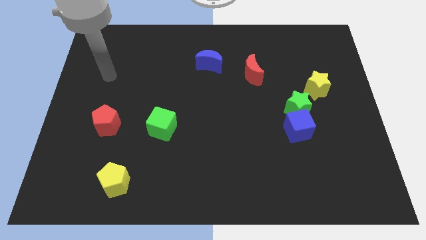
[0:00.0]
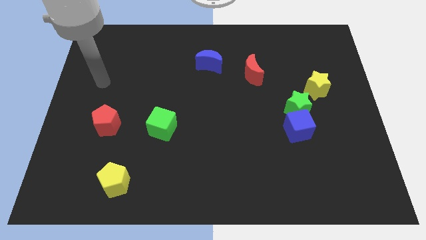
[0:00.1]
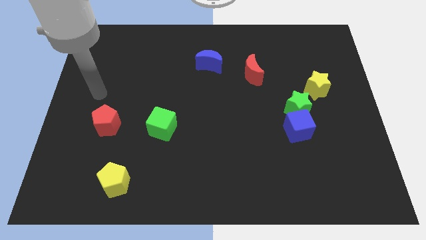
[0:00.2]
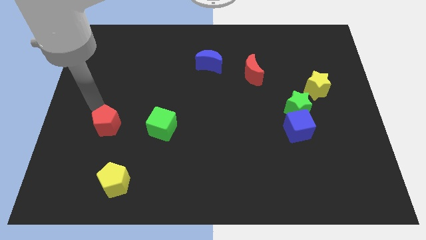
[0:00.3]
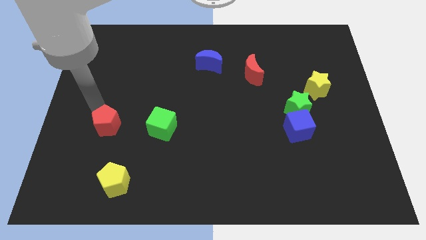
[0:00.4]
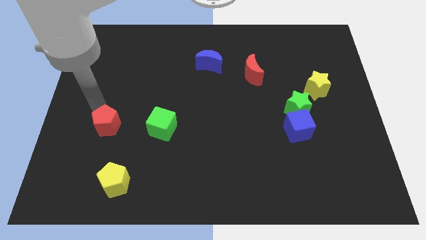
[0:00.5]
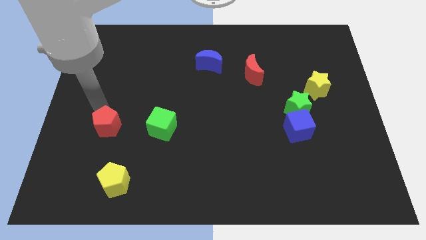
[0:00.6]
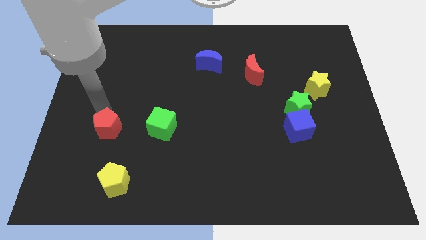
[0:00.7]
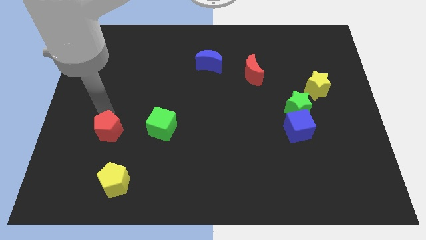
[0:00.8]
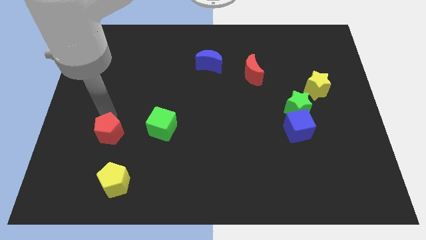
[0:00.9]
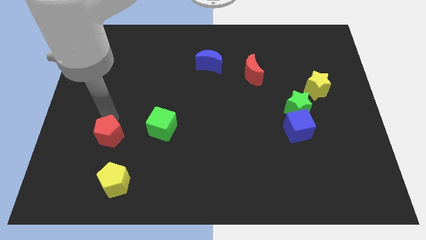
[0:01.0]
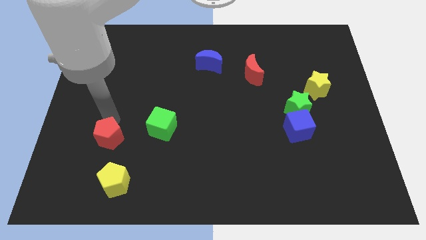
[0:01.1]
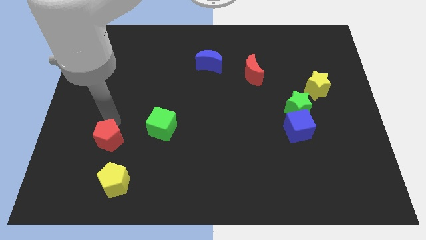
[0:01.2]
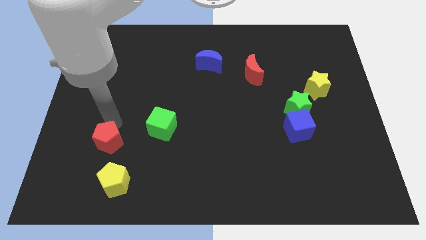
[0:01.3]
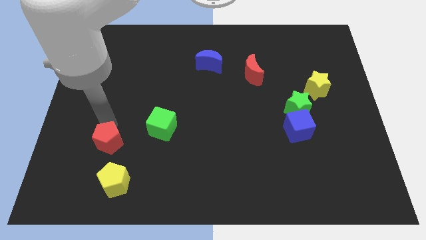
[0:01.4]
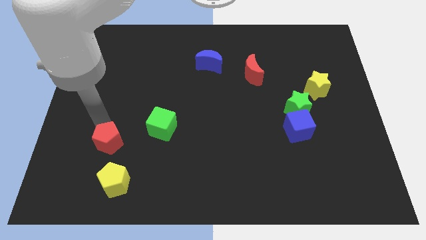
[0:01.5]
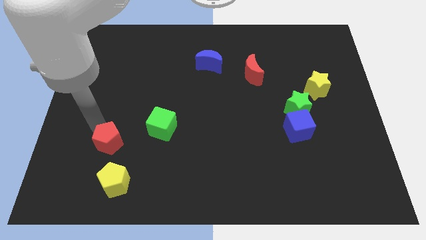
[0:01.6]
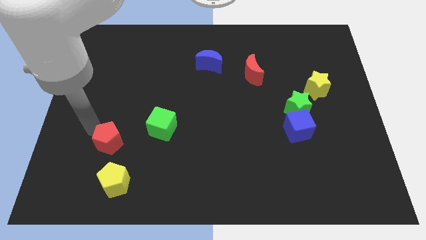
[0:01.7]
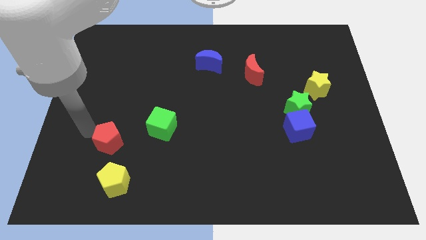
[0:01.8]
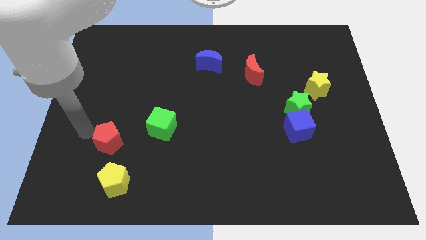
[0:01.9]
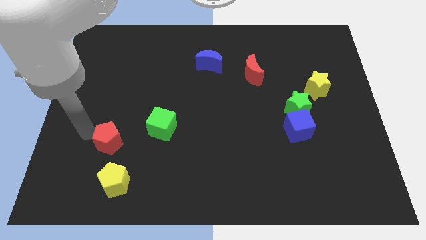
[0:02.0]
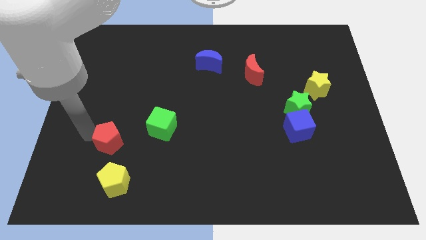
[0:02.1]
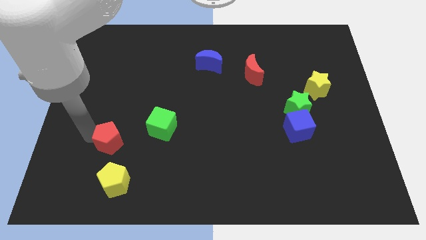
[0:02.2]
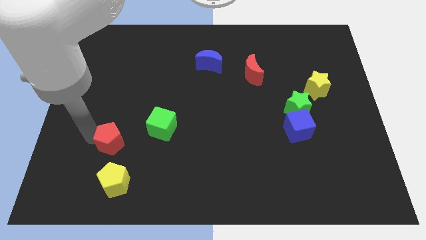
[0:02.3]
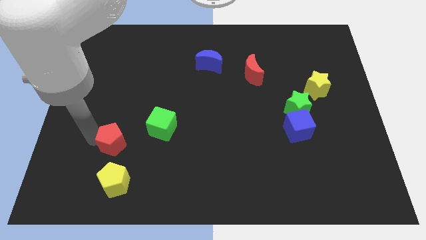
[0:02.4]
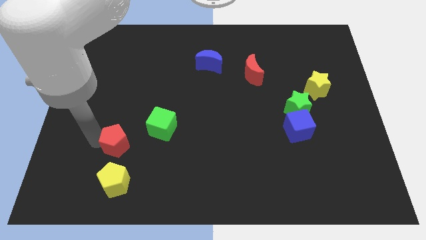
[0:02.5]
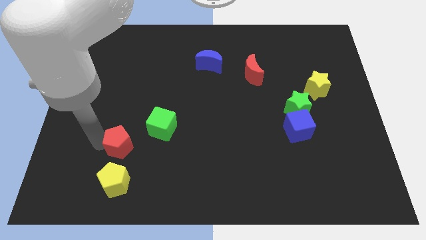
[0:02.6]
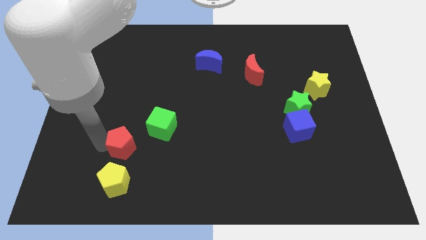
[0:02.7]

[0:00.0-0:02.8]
push the red pentagon a little down and right diagonally

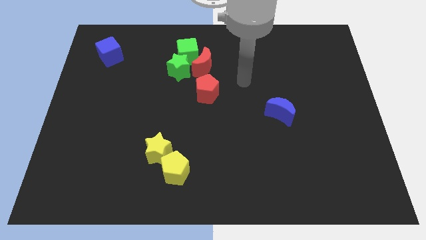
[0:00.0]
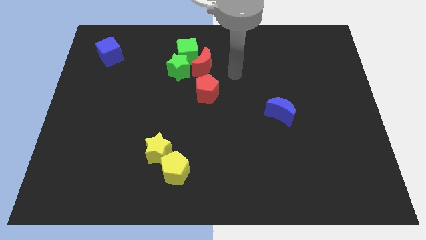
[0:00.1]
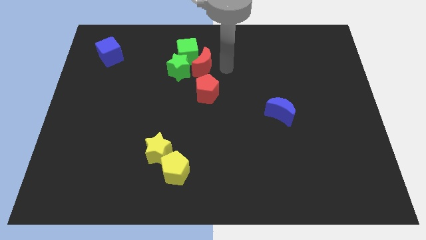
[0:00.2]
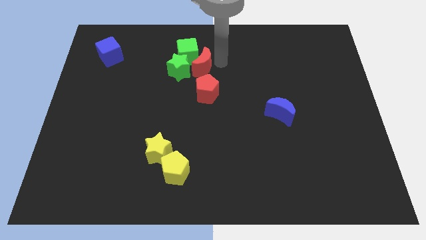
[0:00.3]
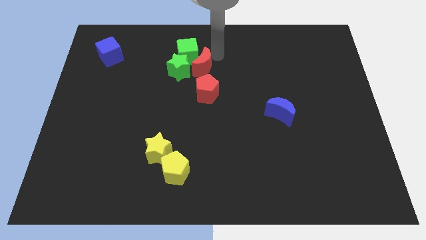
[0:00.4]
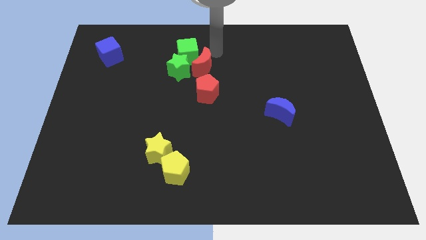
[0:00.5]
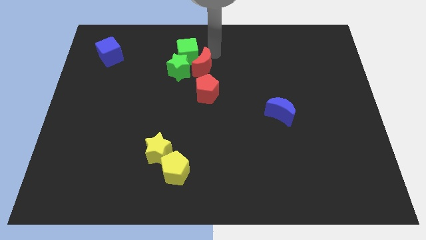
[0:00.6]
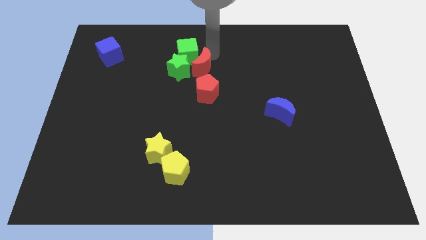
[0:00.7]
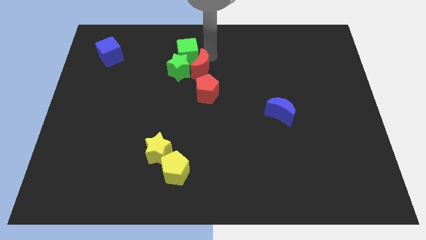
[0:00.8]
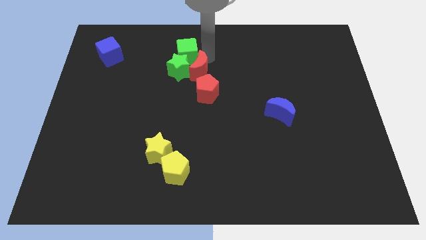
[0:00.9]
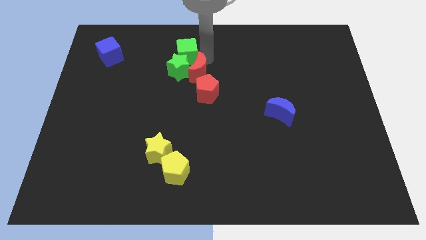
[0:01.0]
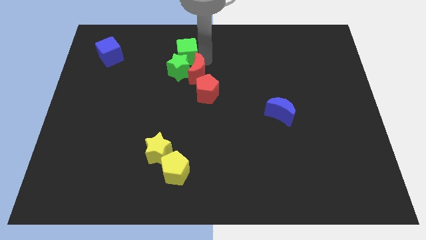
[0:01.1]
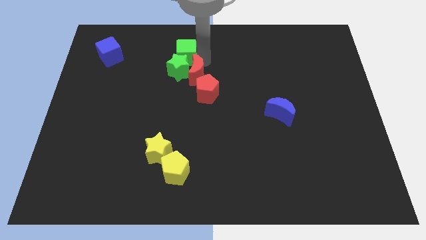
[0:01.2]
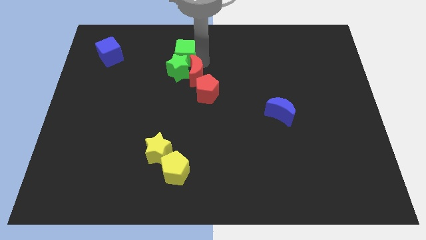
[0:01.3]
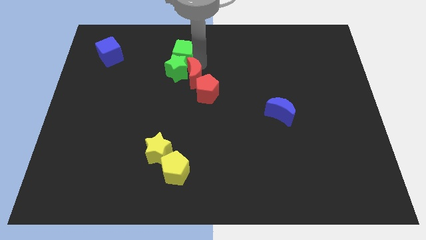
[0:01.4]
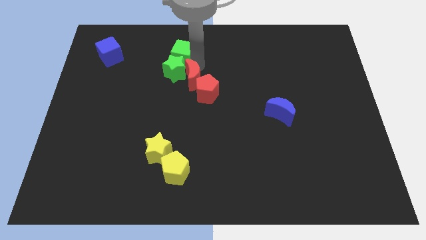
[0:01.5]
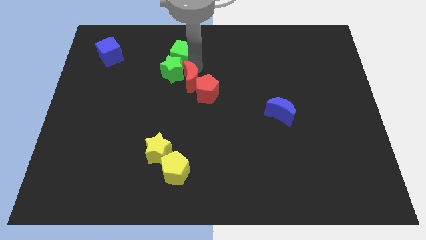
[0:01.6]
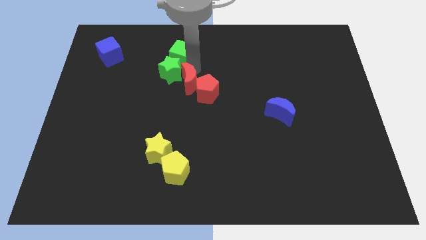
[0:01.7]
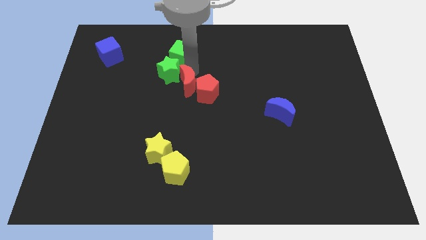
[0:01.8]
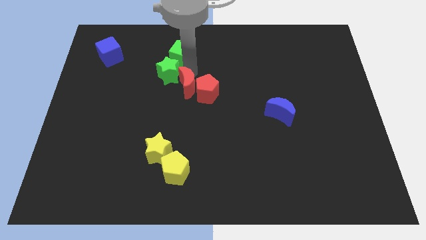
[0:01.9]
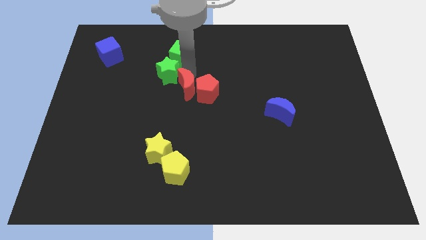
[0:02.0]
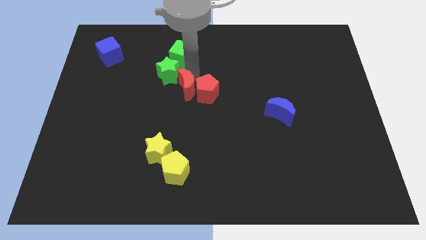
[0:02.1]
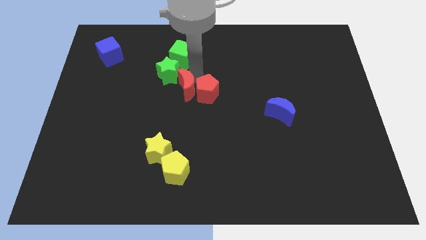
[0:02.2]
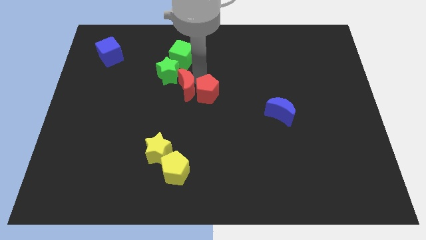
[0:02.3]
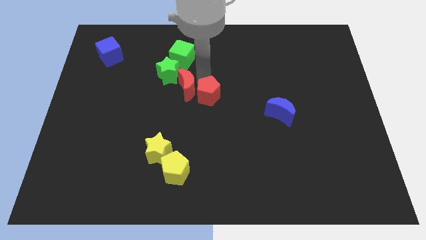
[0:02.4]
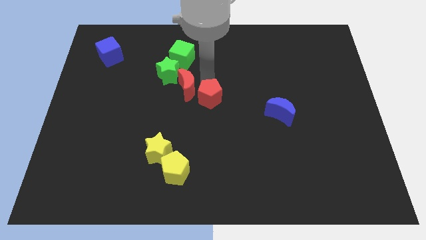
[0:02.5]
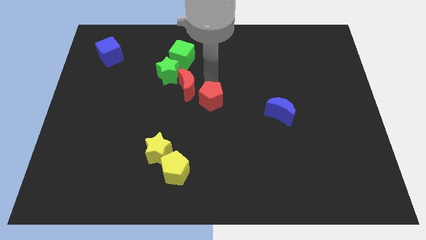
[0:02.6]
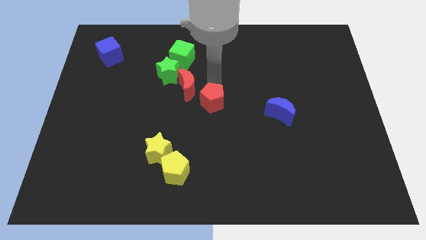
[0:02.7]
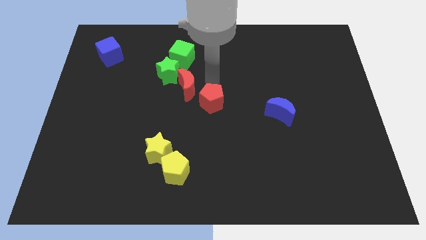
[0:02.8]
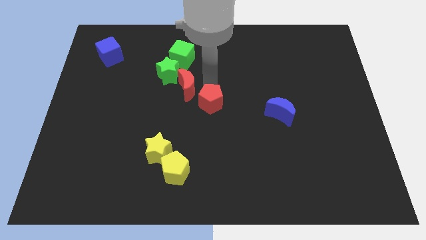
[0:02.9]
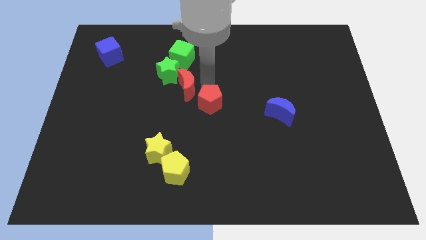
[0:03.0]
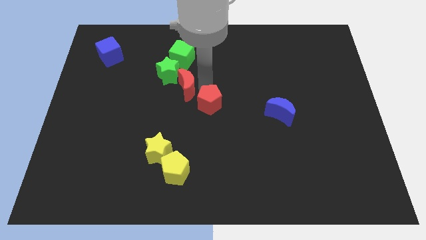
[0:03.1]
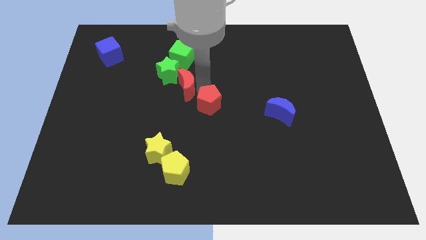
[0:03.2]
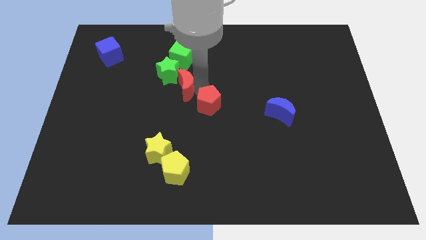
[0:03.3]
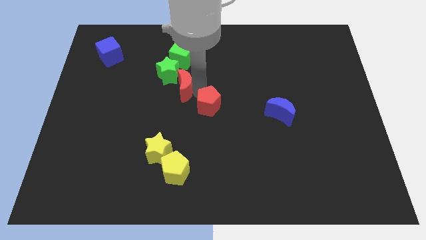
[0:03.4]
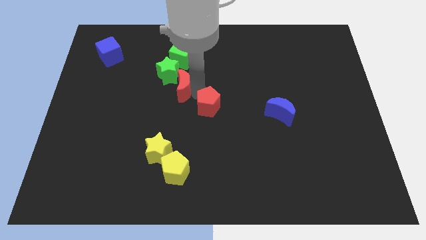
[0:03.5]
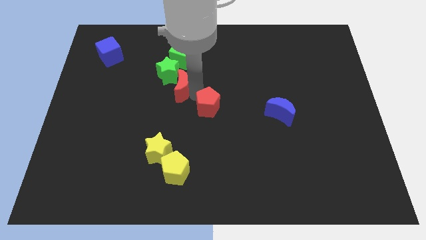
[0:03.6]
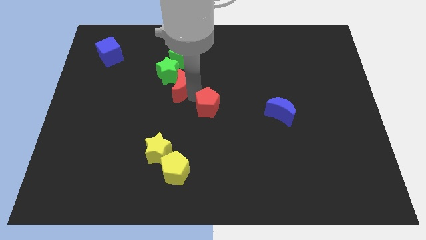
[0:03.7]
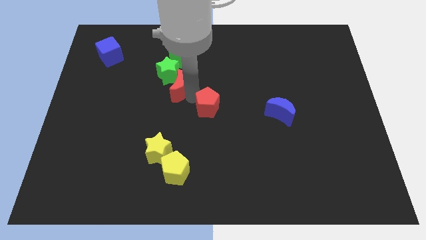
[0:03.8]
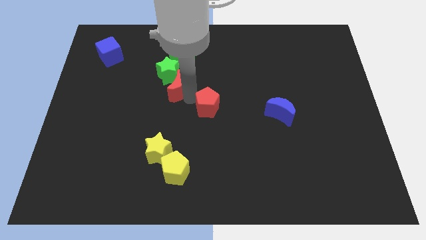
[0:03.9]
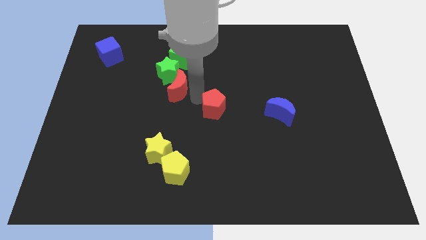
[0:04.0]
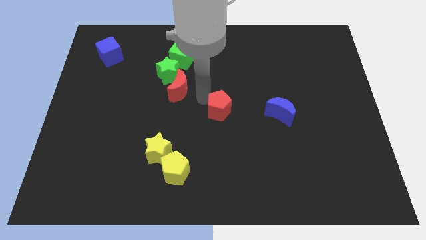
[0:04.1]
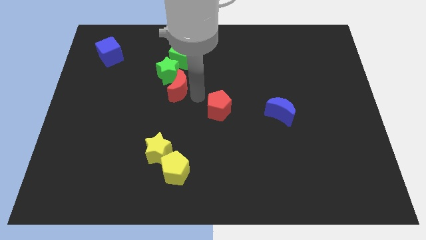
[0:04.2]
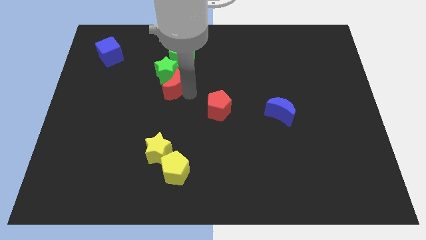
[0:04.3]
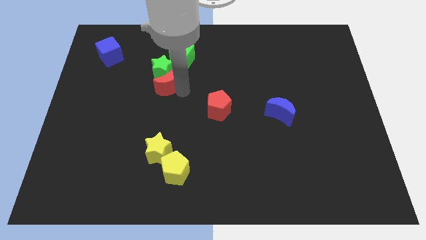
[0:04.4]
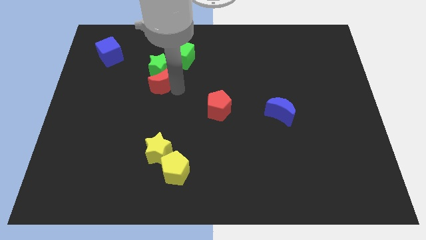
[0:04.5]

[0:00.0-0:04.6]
push the red moon left somewhat

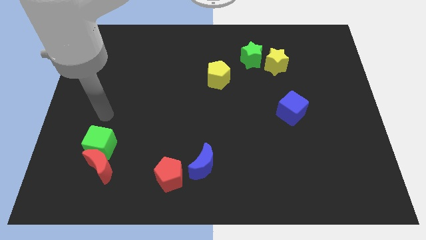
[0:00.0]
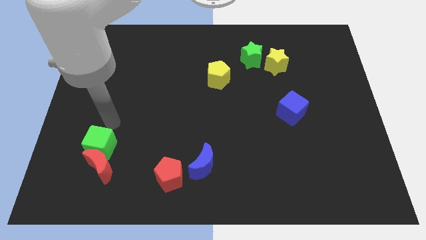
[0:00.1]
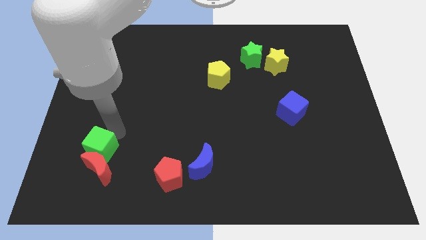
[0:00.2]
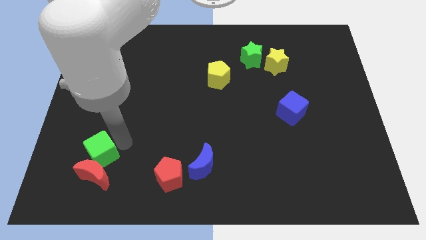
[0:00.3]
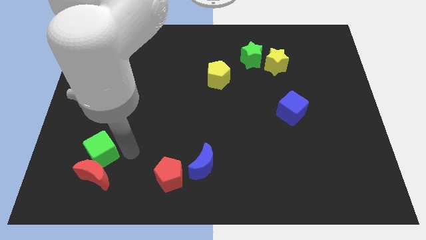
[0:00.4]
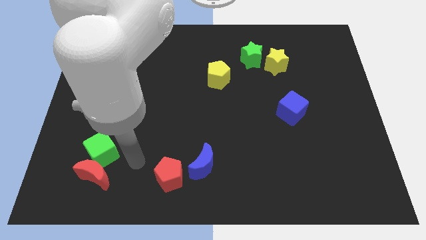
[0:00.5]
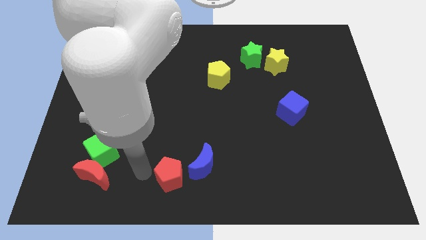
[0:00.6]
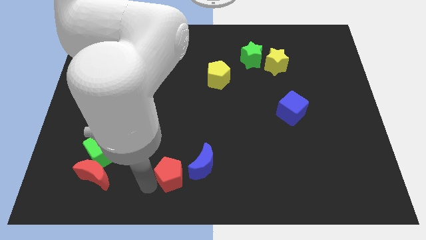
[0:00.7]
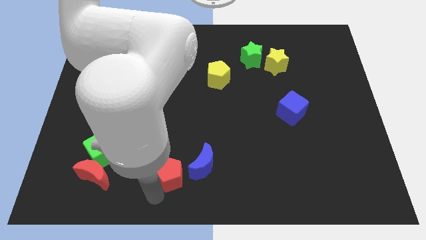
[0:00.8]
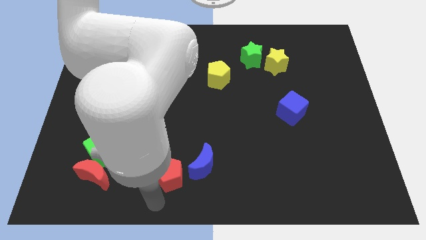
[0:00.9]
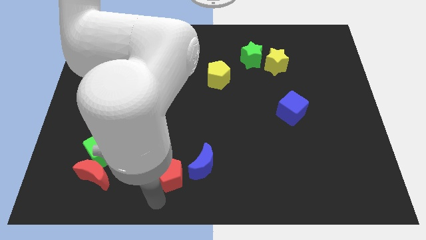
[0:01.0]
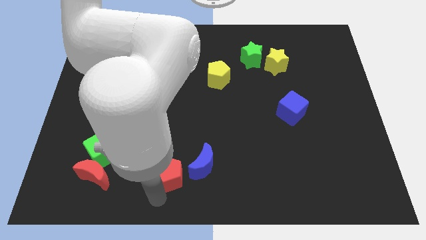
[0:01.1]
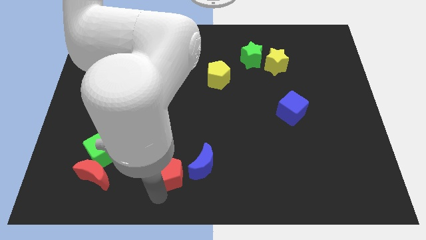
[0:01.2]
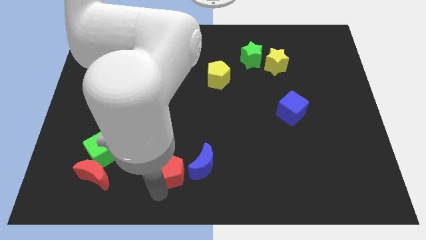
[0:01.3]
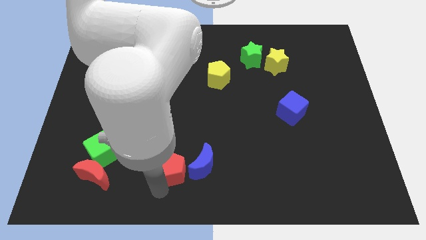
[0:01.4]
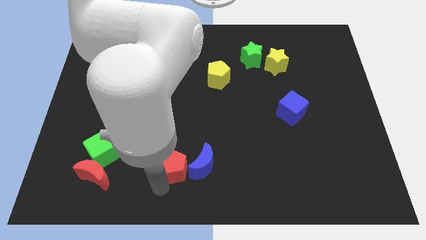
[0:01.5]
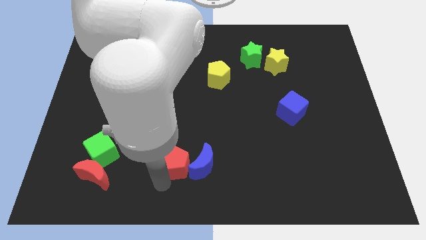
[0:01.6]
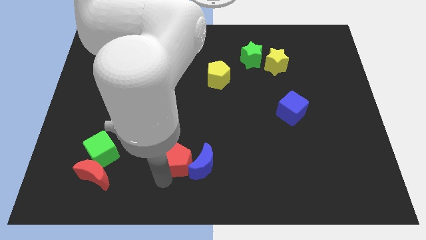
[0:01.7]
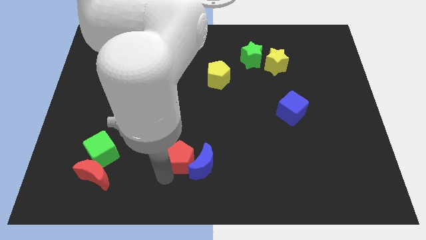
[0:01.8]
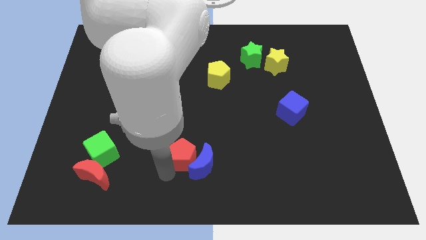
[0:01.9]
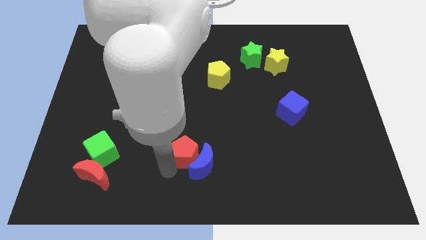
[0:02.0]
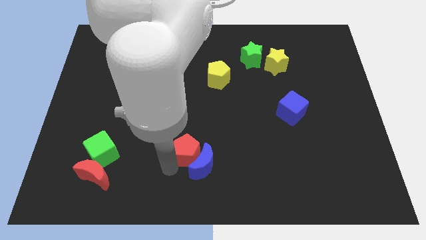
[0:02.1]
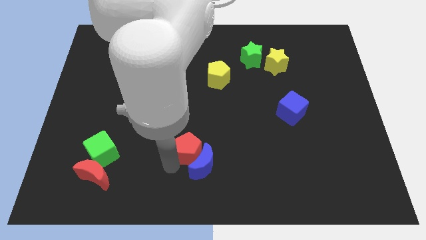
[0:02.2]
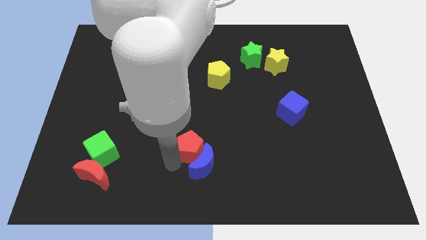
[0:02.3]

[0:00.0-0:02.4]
slightly push the red pentagon diagonally upwards and to the right
